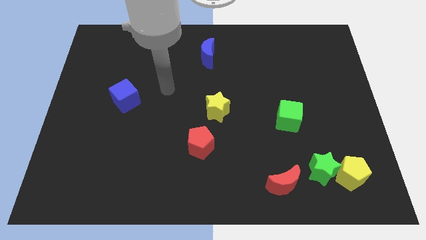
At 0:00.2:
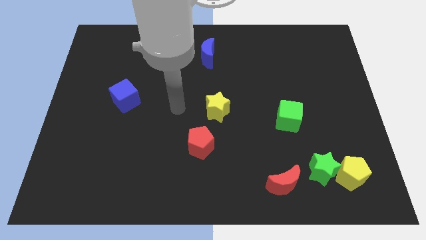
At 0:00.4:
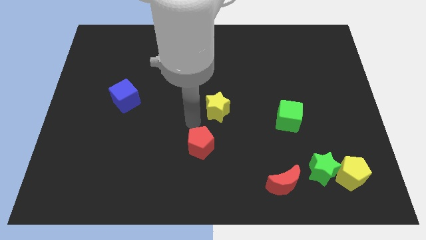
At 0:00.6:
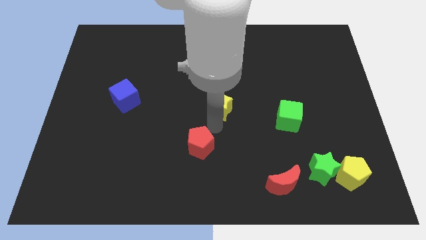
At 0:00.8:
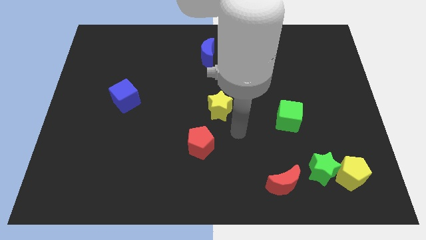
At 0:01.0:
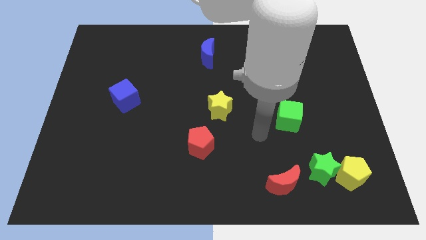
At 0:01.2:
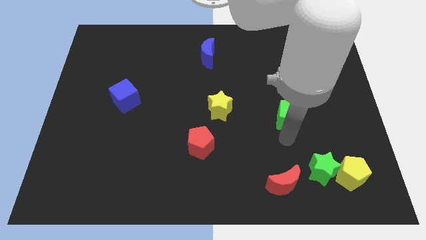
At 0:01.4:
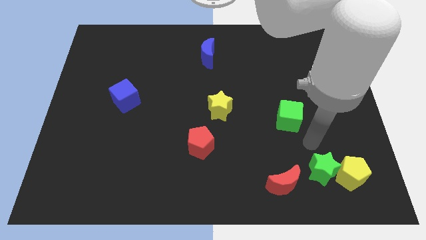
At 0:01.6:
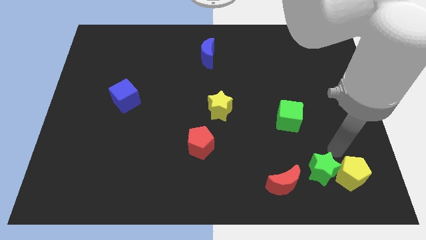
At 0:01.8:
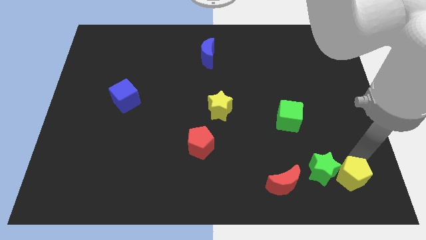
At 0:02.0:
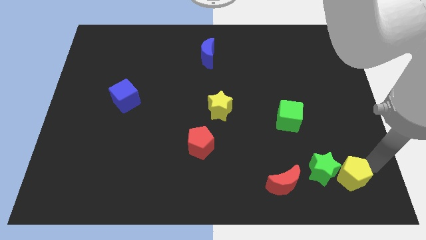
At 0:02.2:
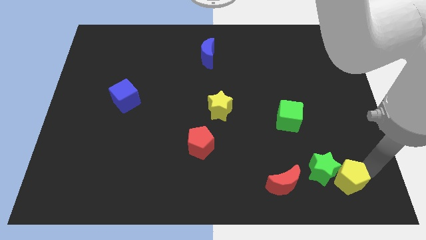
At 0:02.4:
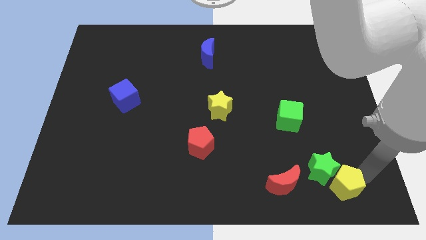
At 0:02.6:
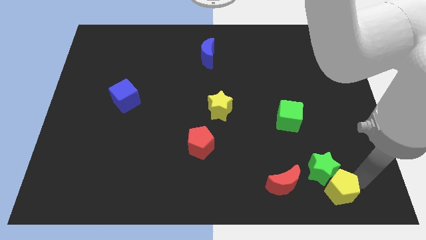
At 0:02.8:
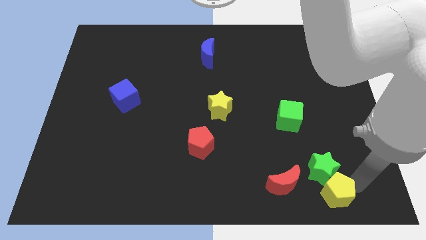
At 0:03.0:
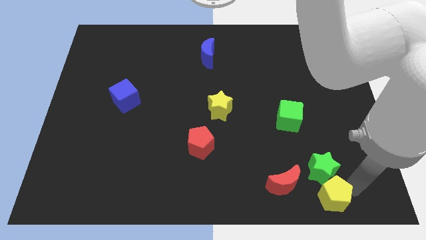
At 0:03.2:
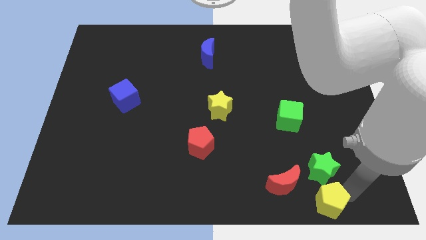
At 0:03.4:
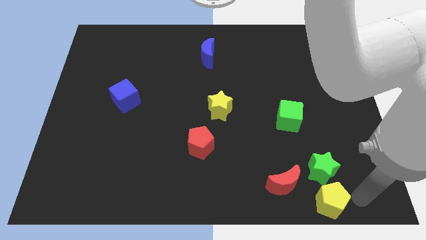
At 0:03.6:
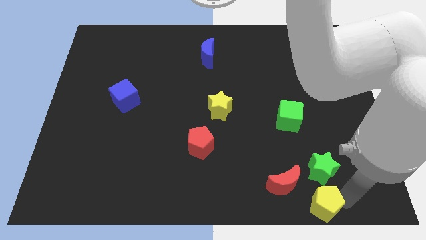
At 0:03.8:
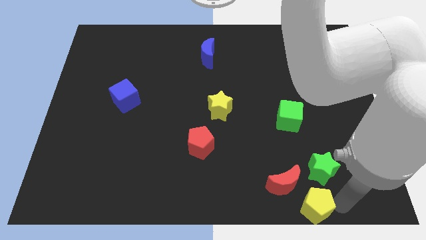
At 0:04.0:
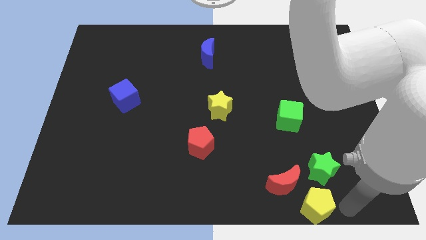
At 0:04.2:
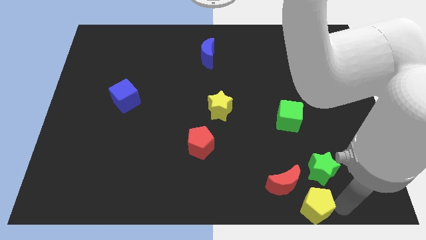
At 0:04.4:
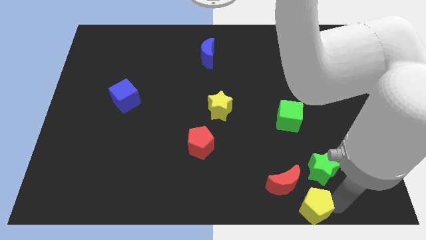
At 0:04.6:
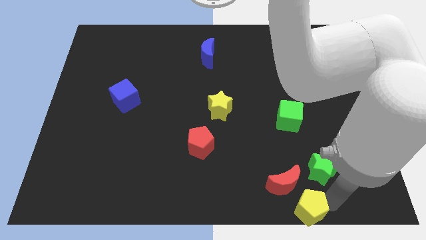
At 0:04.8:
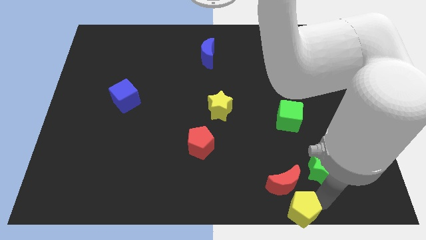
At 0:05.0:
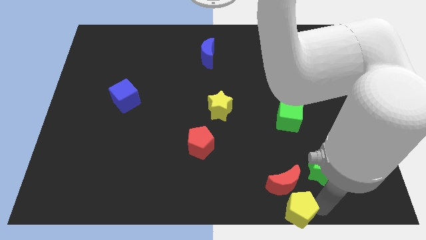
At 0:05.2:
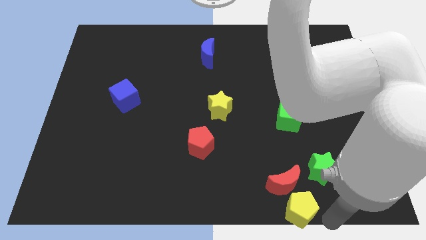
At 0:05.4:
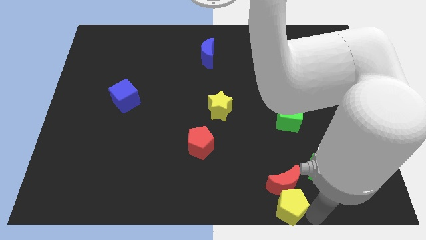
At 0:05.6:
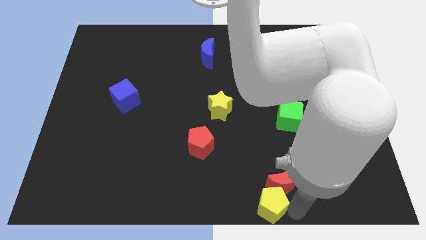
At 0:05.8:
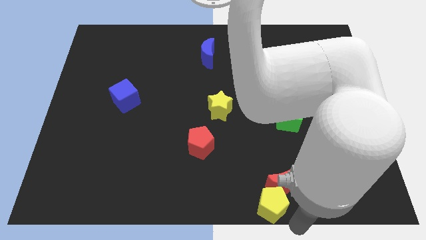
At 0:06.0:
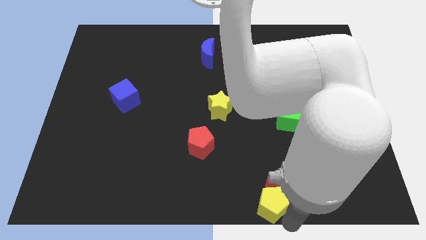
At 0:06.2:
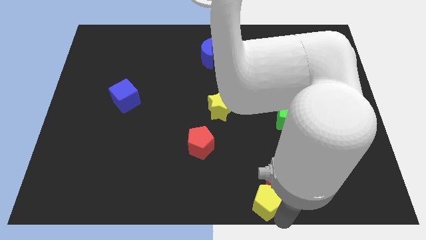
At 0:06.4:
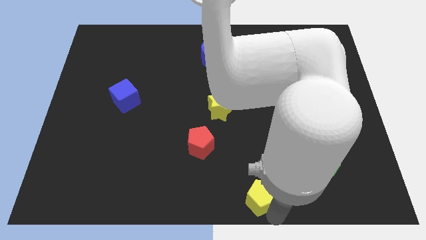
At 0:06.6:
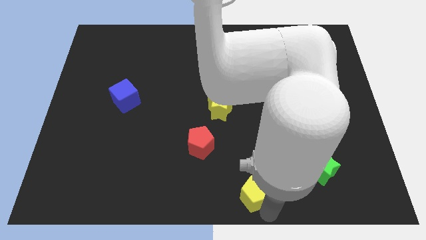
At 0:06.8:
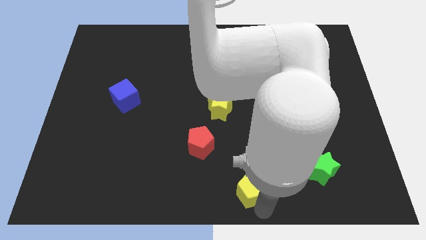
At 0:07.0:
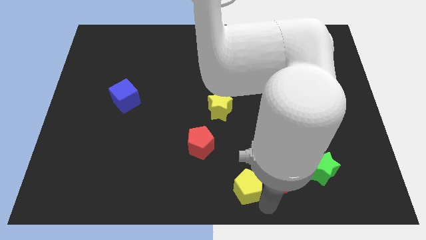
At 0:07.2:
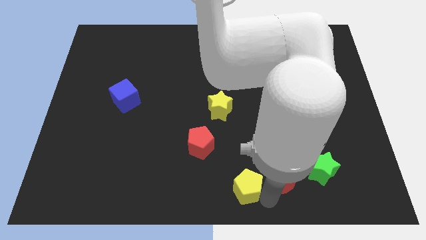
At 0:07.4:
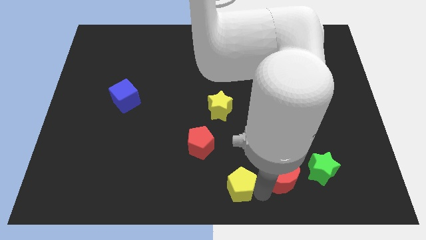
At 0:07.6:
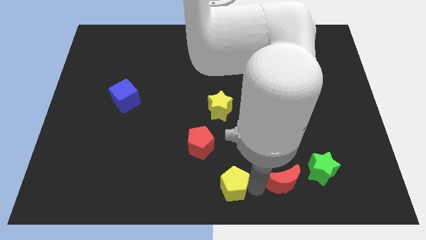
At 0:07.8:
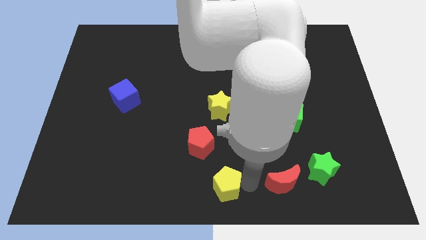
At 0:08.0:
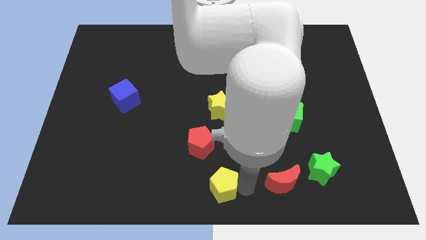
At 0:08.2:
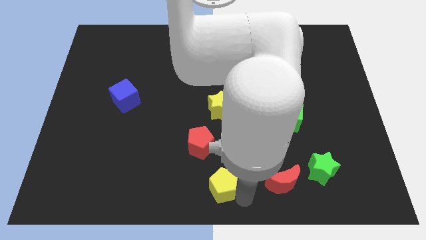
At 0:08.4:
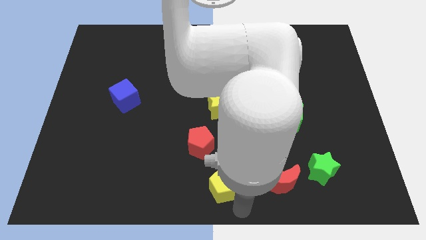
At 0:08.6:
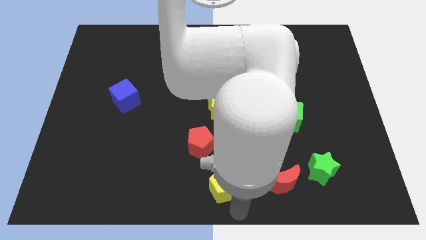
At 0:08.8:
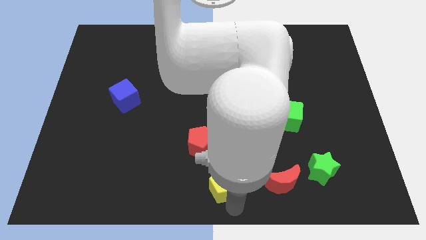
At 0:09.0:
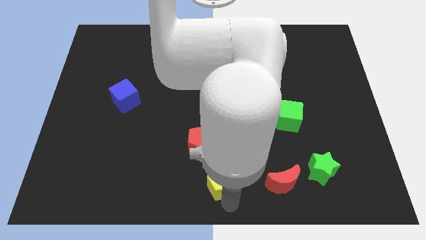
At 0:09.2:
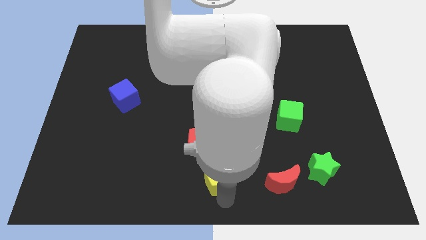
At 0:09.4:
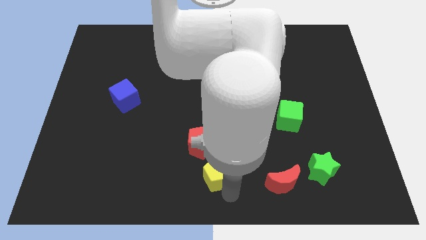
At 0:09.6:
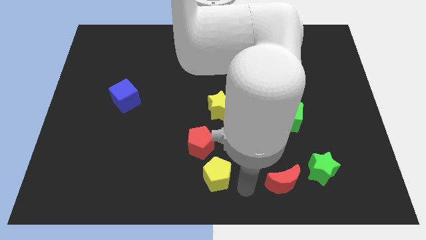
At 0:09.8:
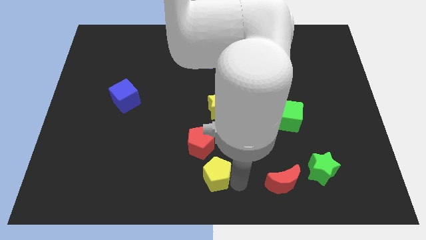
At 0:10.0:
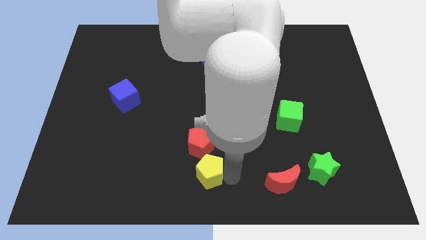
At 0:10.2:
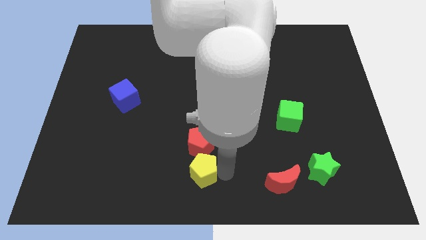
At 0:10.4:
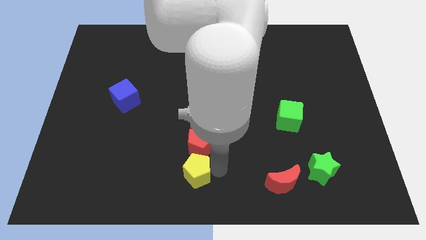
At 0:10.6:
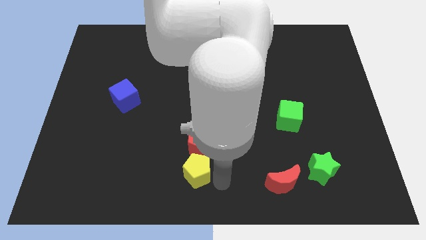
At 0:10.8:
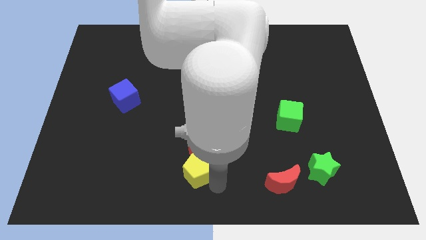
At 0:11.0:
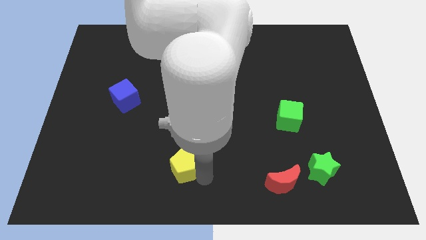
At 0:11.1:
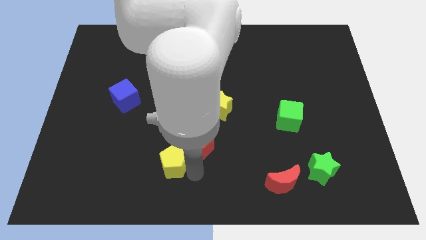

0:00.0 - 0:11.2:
push the yellow pentagon to the left side of the red pentagon

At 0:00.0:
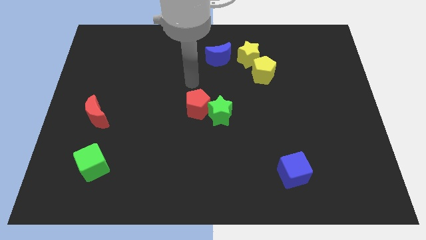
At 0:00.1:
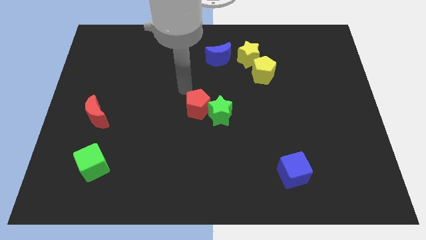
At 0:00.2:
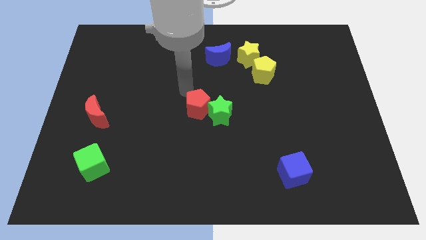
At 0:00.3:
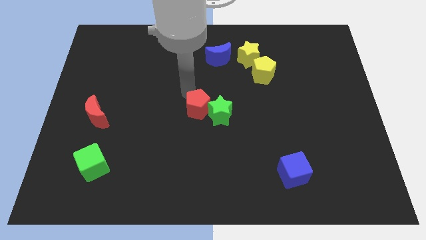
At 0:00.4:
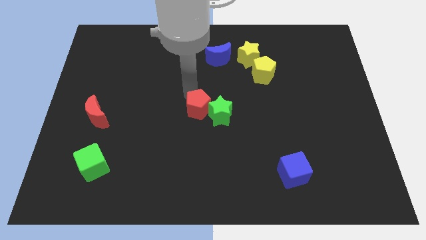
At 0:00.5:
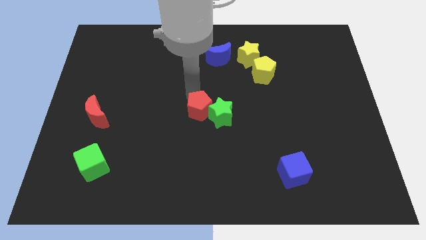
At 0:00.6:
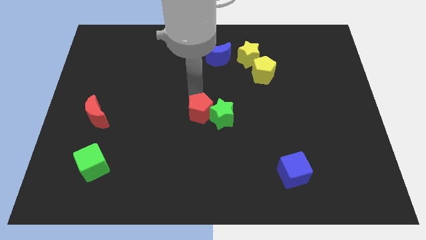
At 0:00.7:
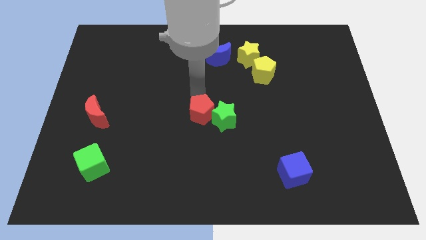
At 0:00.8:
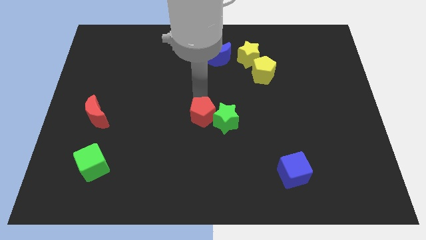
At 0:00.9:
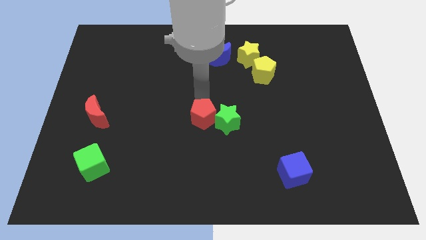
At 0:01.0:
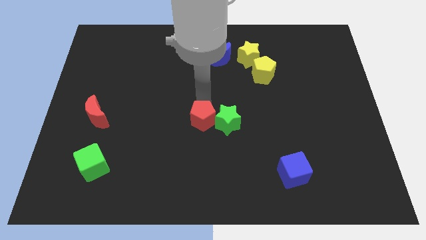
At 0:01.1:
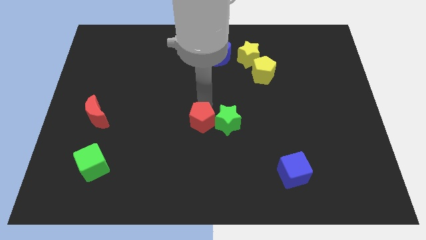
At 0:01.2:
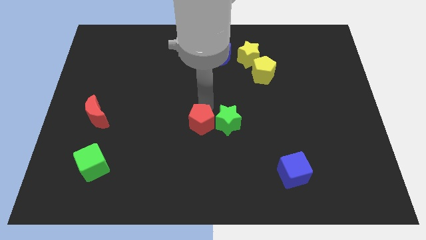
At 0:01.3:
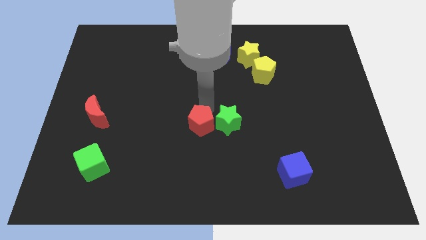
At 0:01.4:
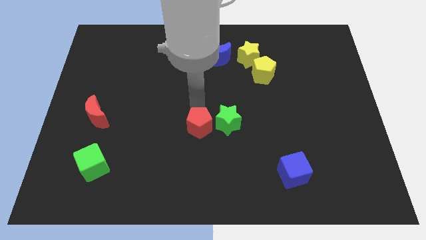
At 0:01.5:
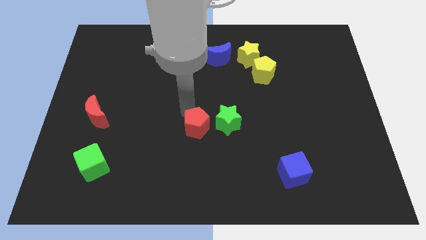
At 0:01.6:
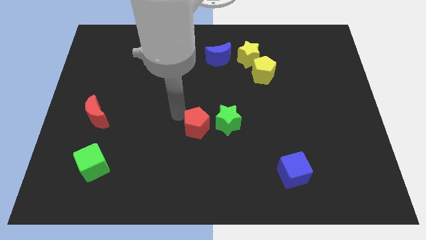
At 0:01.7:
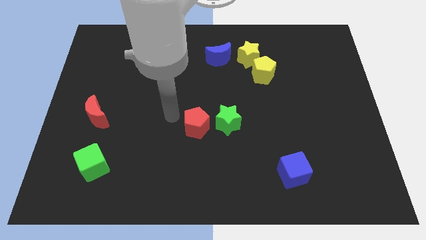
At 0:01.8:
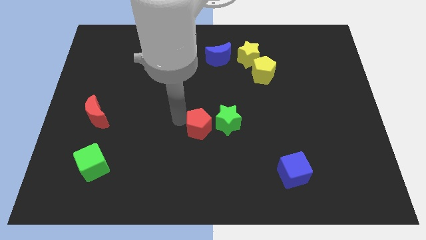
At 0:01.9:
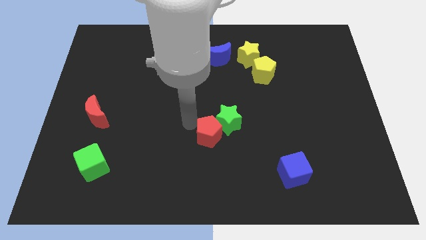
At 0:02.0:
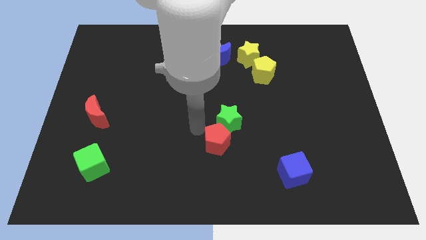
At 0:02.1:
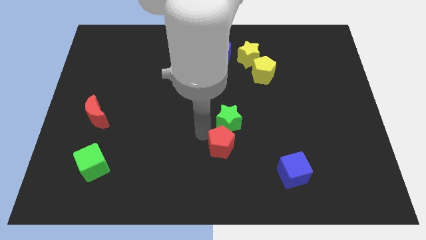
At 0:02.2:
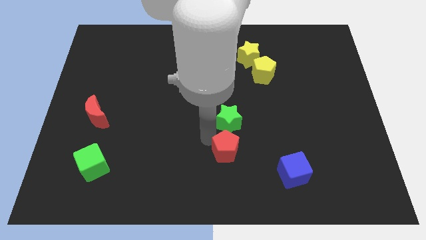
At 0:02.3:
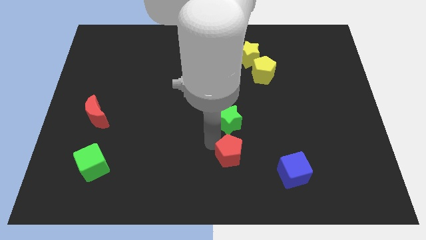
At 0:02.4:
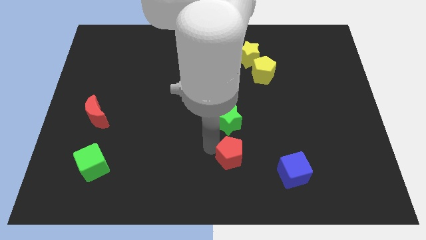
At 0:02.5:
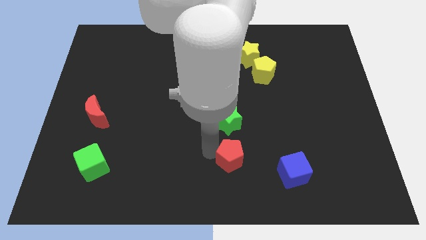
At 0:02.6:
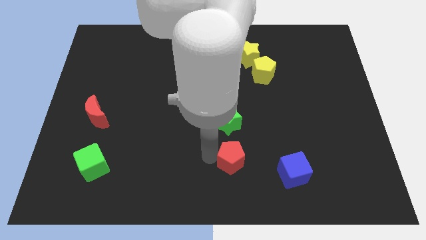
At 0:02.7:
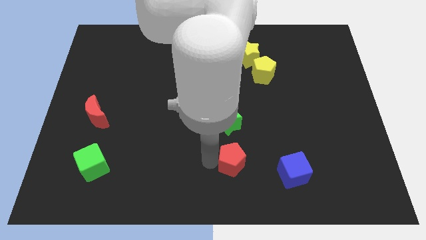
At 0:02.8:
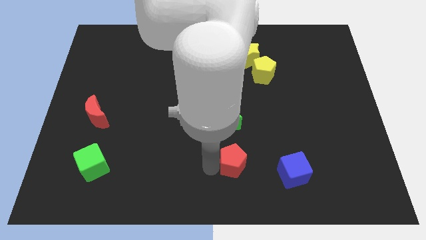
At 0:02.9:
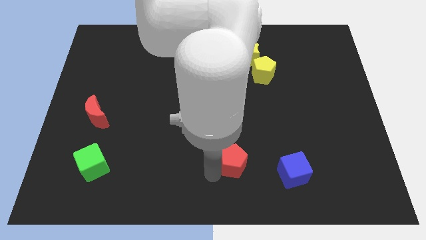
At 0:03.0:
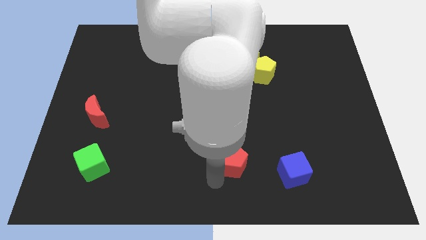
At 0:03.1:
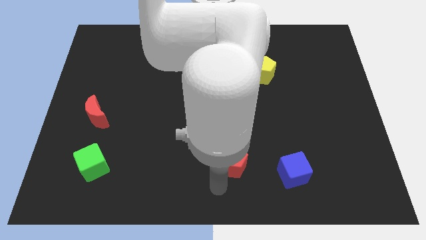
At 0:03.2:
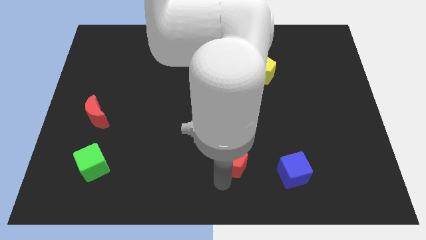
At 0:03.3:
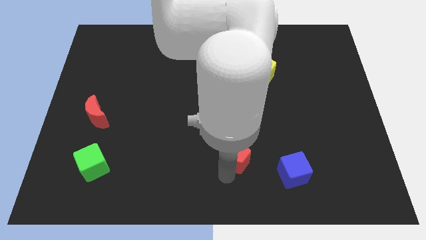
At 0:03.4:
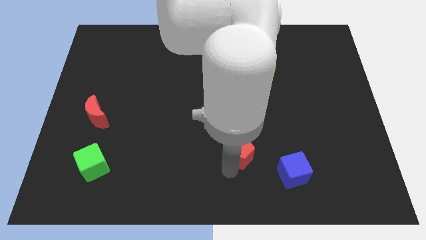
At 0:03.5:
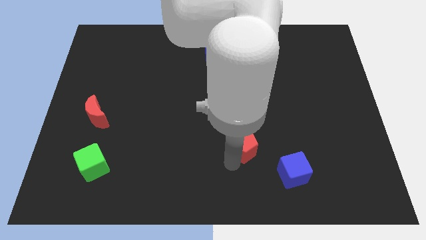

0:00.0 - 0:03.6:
put the red pentagon diagonally up and to the left of the blue cube
